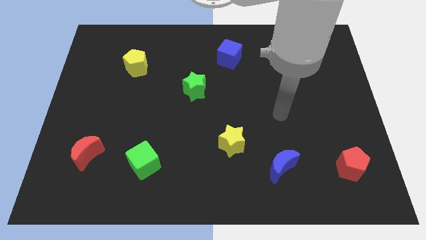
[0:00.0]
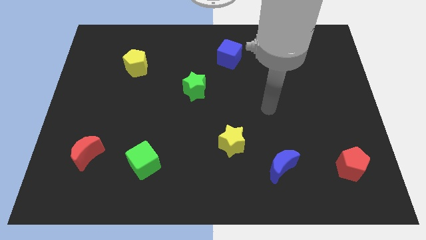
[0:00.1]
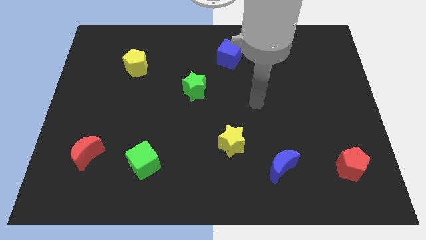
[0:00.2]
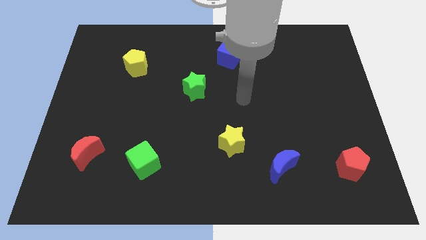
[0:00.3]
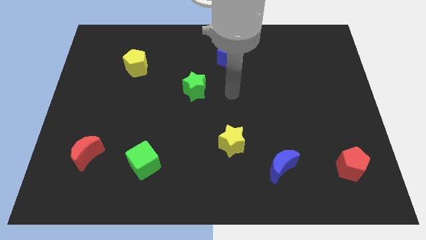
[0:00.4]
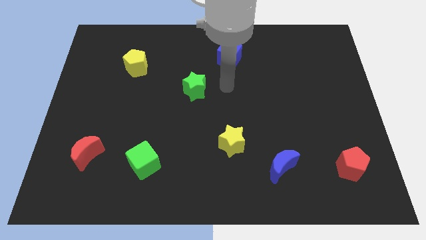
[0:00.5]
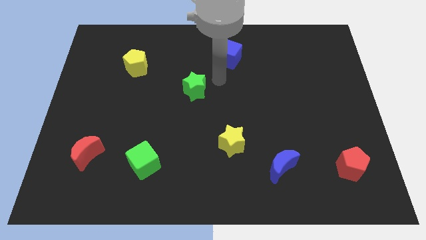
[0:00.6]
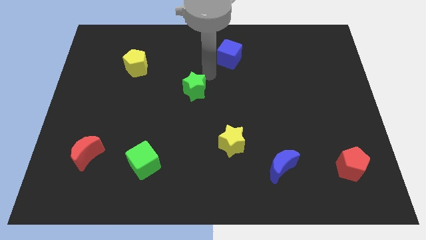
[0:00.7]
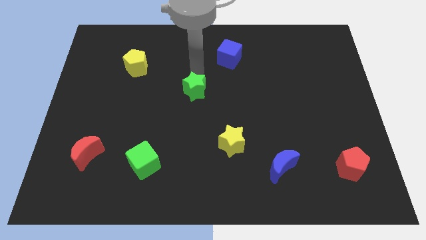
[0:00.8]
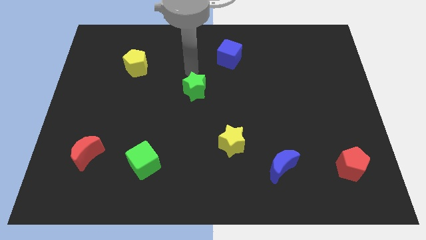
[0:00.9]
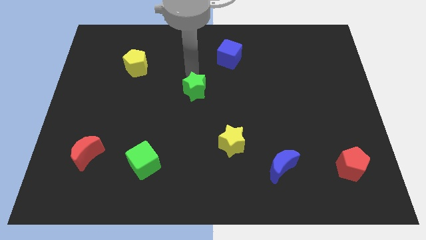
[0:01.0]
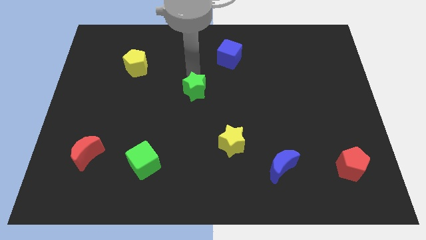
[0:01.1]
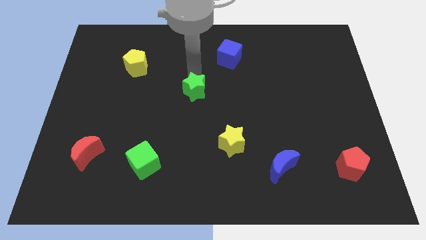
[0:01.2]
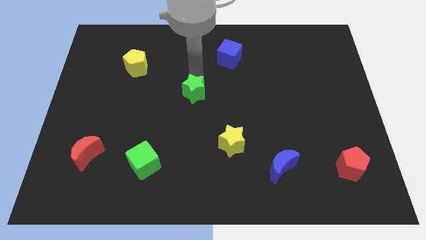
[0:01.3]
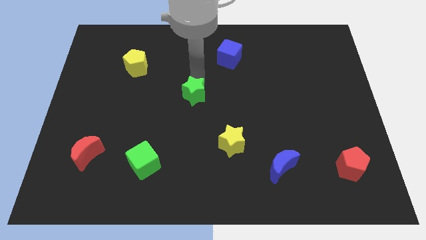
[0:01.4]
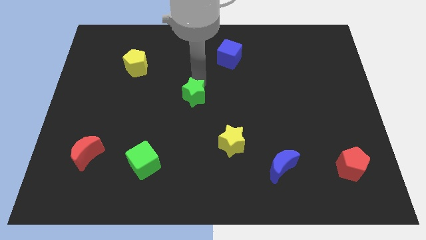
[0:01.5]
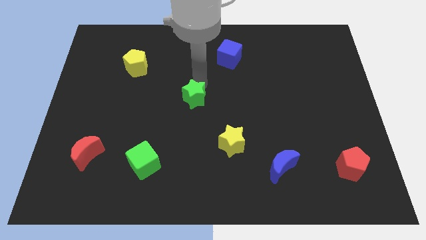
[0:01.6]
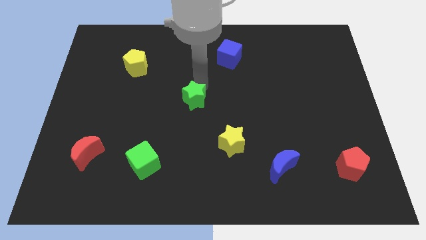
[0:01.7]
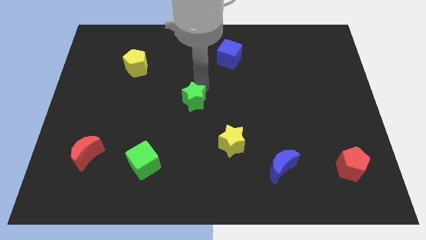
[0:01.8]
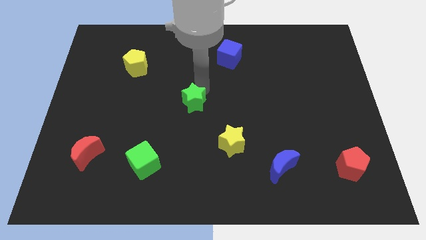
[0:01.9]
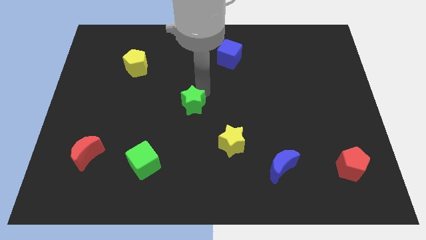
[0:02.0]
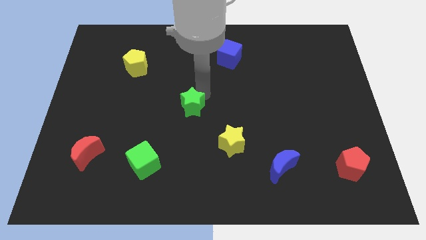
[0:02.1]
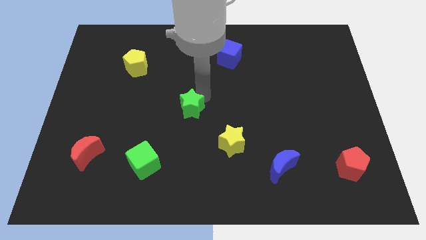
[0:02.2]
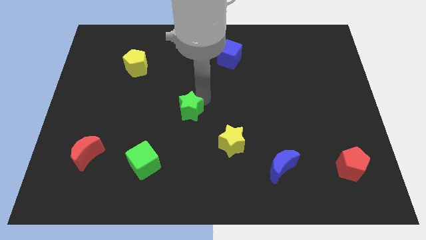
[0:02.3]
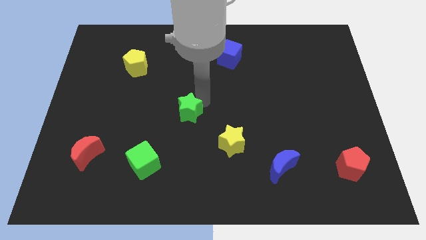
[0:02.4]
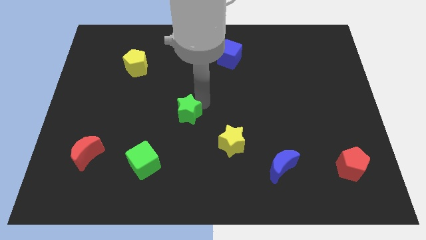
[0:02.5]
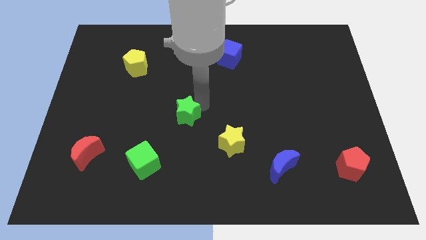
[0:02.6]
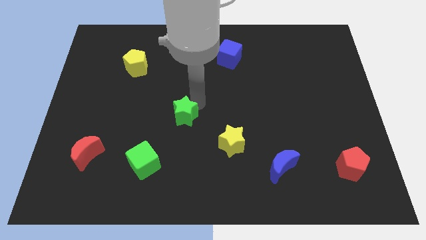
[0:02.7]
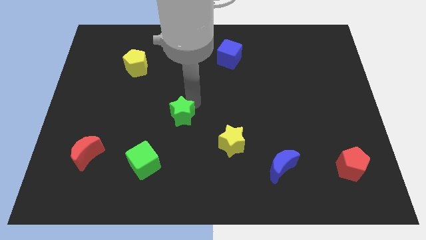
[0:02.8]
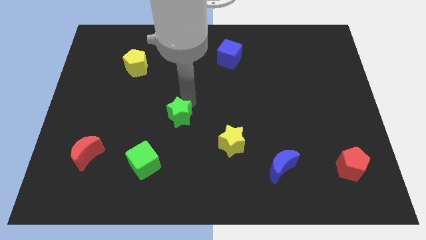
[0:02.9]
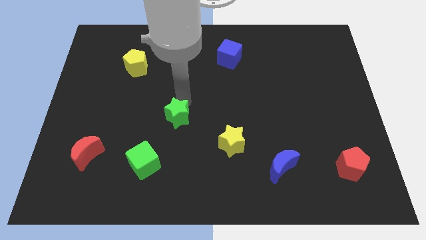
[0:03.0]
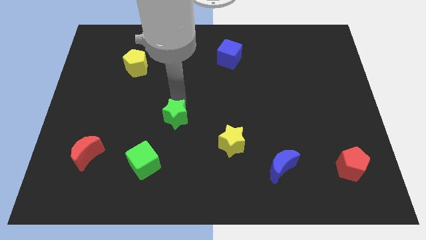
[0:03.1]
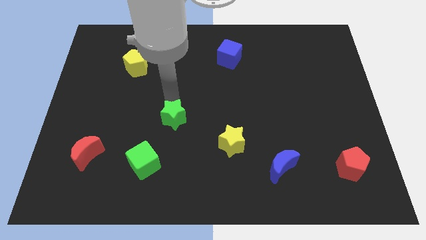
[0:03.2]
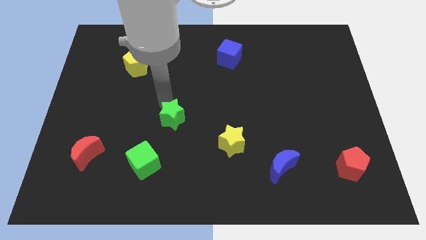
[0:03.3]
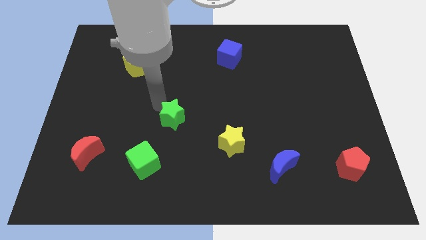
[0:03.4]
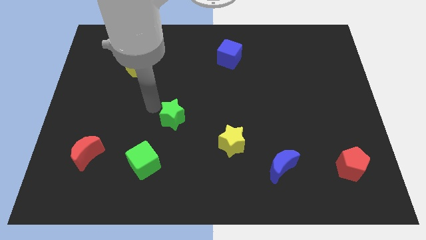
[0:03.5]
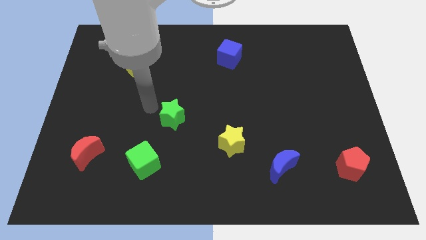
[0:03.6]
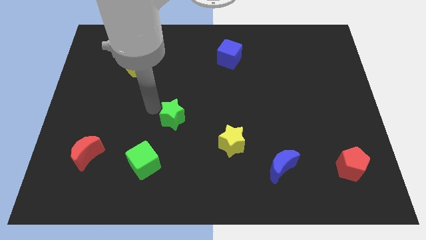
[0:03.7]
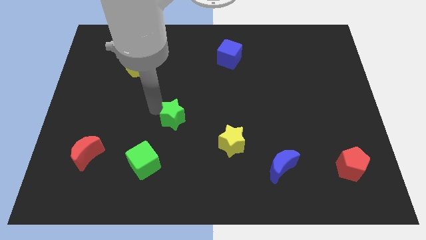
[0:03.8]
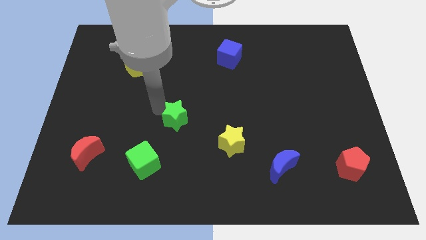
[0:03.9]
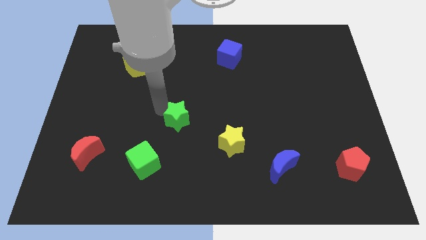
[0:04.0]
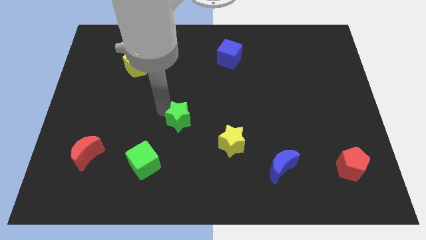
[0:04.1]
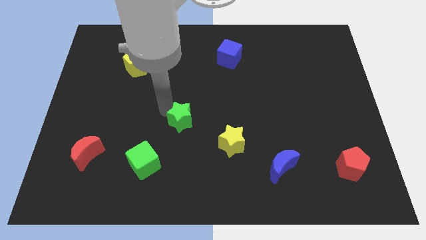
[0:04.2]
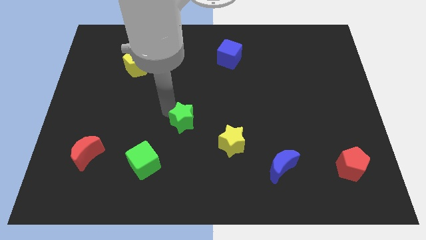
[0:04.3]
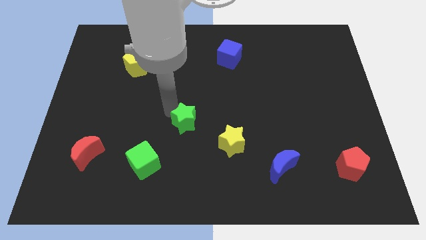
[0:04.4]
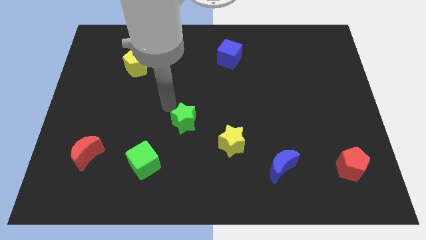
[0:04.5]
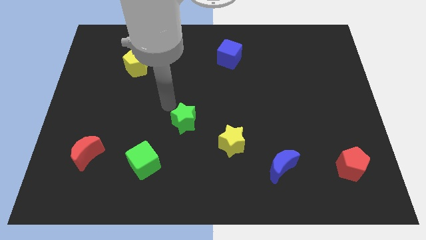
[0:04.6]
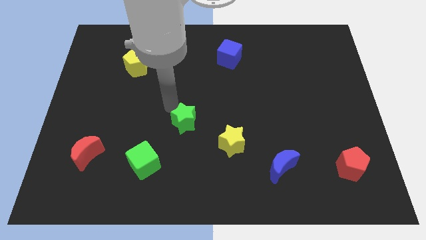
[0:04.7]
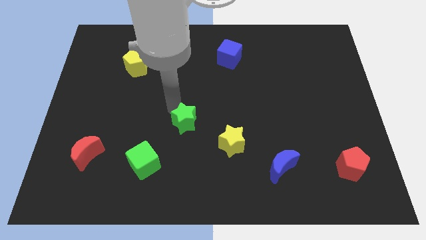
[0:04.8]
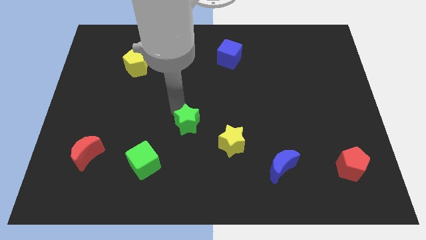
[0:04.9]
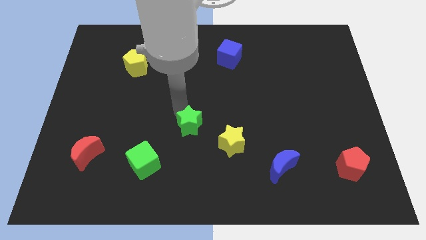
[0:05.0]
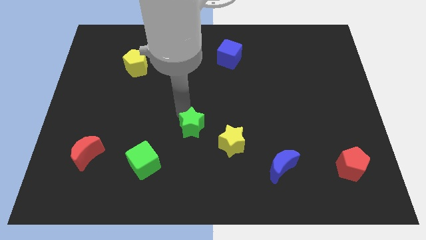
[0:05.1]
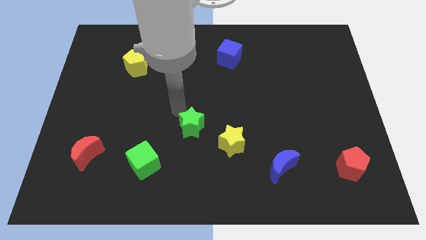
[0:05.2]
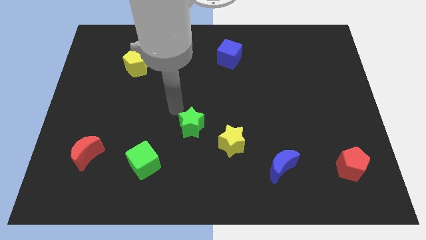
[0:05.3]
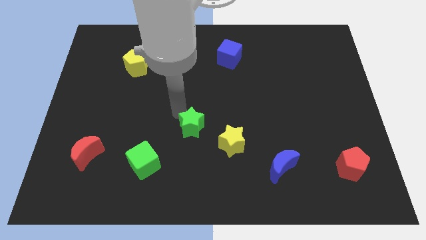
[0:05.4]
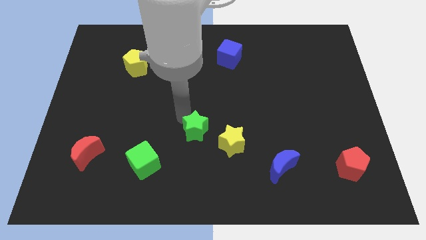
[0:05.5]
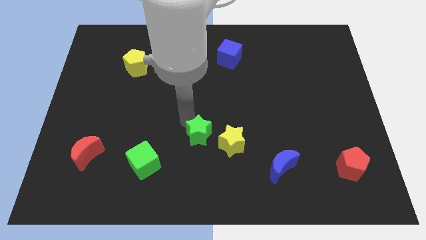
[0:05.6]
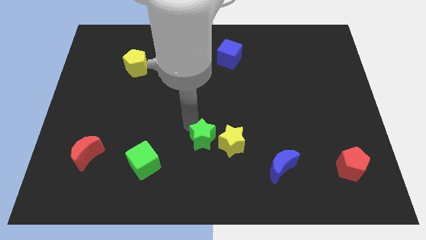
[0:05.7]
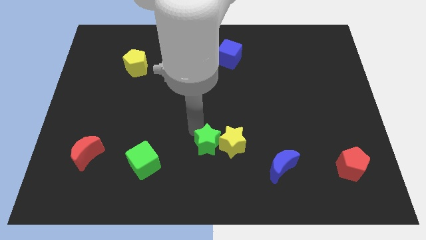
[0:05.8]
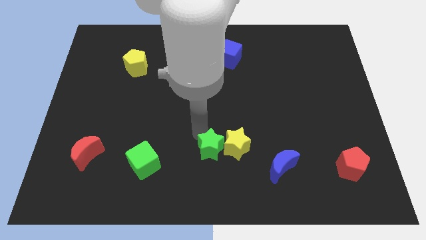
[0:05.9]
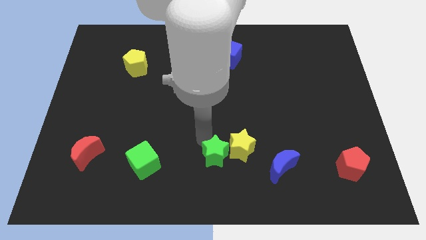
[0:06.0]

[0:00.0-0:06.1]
move the green star just left of the blue moon

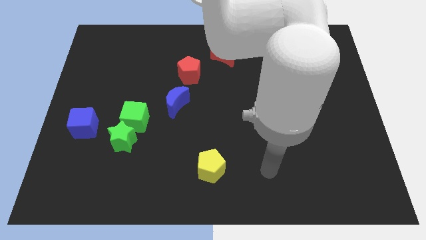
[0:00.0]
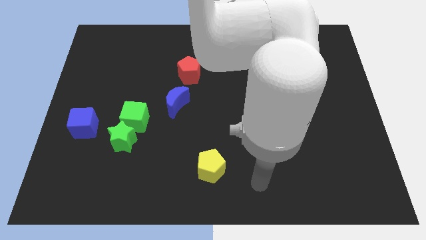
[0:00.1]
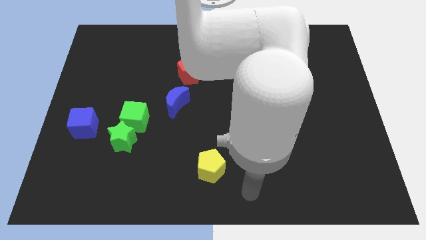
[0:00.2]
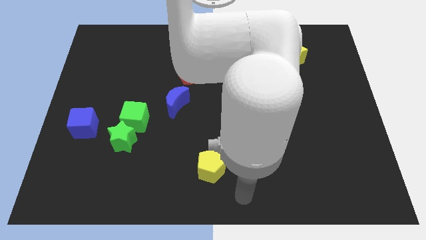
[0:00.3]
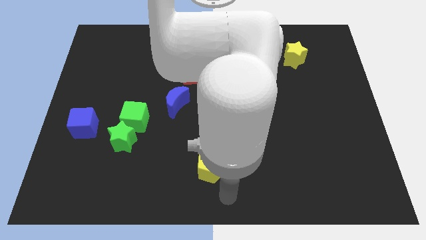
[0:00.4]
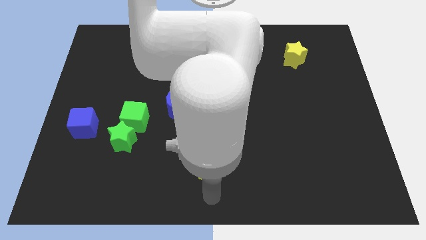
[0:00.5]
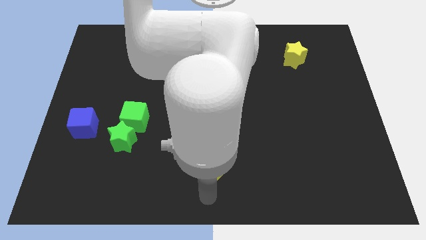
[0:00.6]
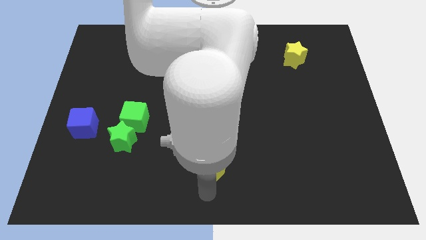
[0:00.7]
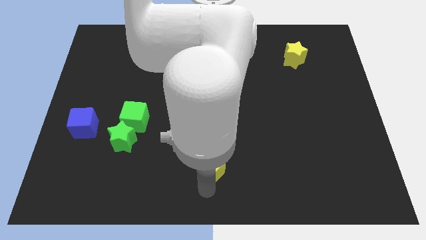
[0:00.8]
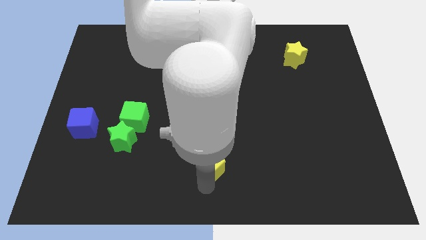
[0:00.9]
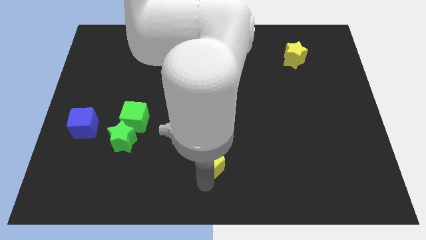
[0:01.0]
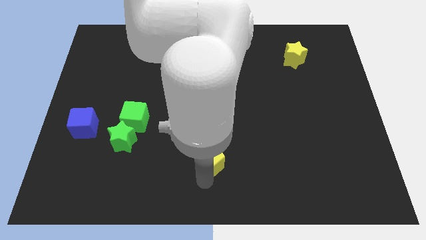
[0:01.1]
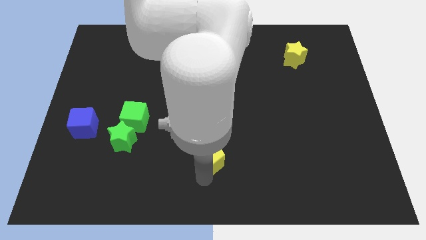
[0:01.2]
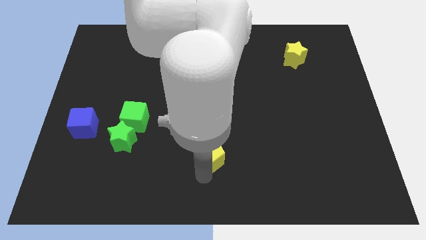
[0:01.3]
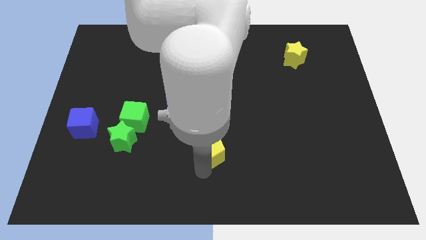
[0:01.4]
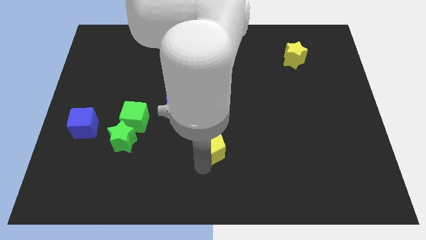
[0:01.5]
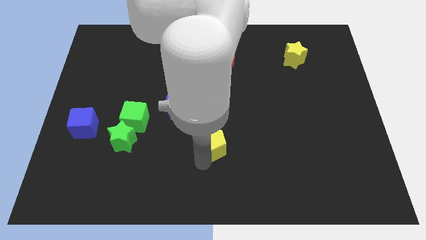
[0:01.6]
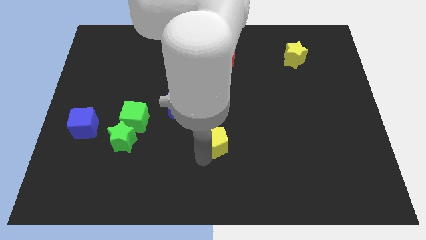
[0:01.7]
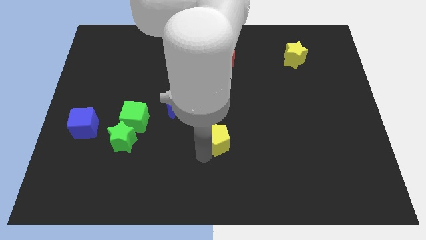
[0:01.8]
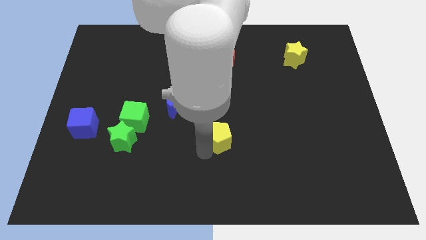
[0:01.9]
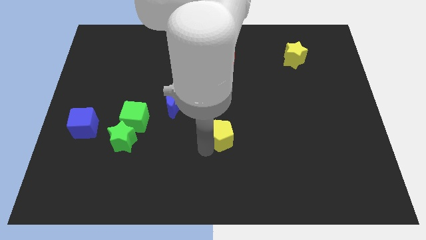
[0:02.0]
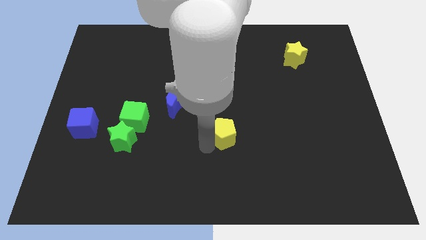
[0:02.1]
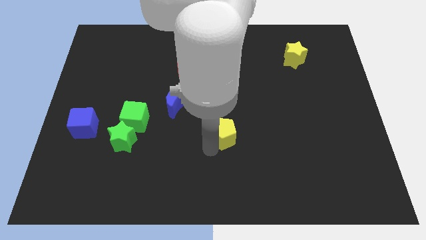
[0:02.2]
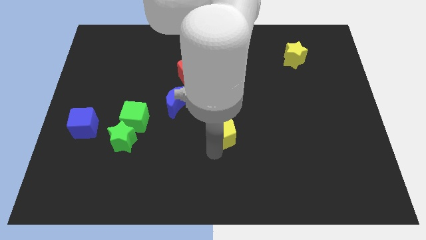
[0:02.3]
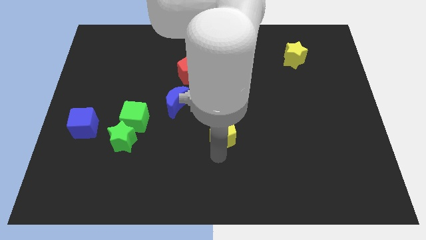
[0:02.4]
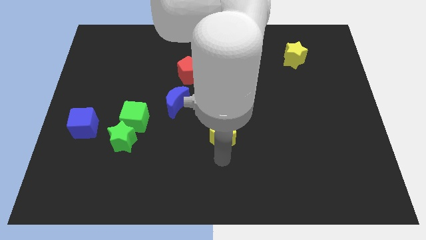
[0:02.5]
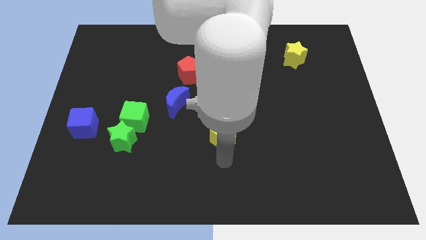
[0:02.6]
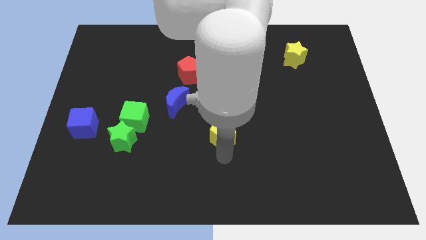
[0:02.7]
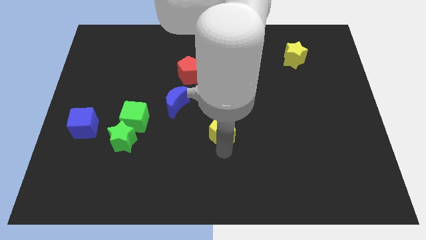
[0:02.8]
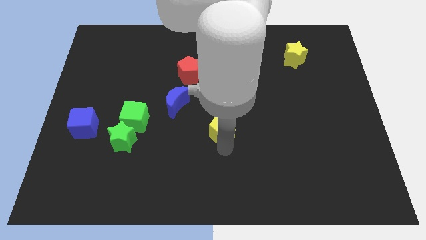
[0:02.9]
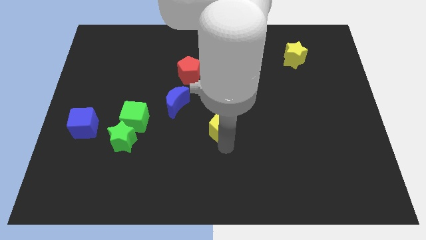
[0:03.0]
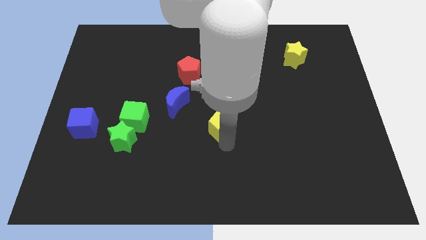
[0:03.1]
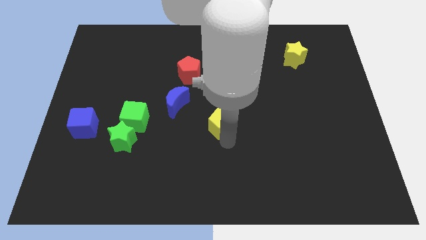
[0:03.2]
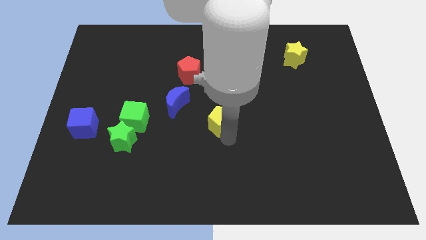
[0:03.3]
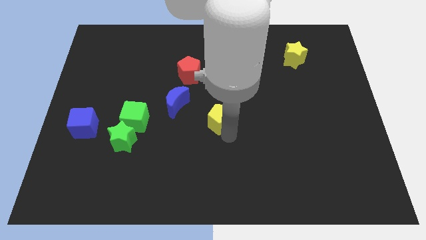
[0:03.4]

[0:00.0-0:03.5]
move the yellow pentagon right of the blue moon
